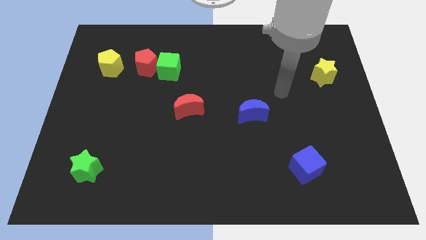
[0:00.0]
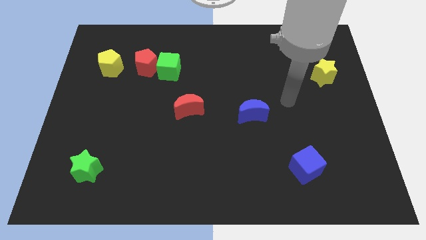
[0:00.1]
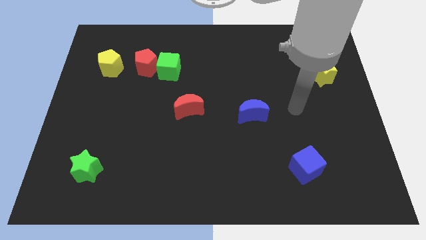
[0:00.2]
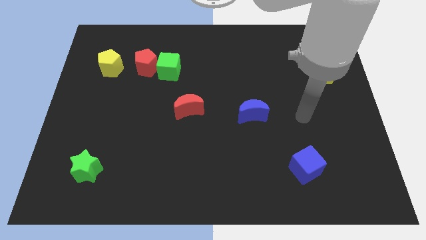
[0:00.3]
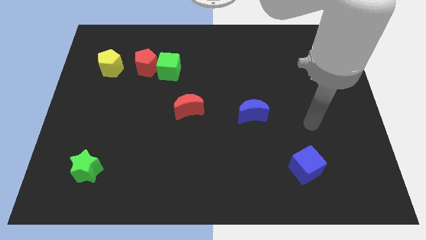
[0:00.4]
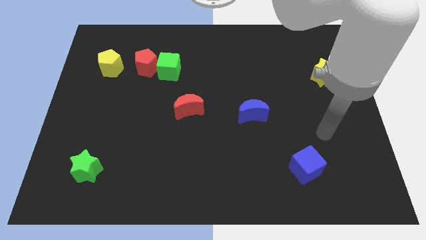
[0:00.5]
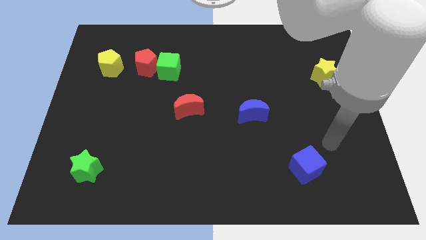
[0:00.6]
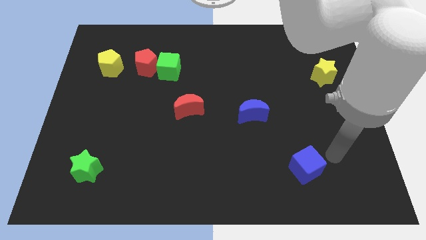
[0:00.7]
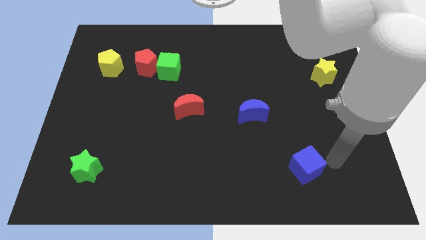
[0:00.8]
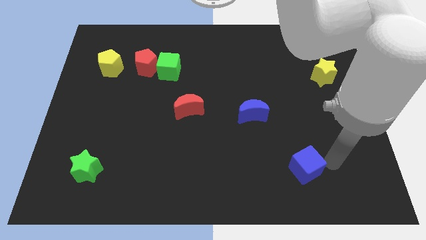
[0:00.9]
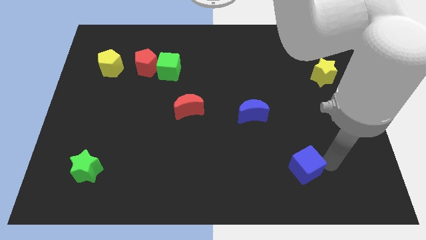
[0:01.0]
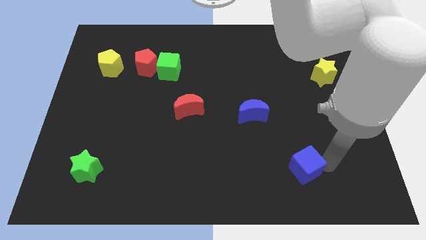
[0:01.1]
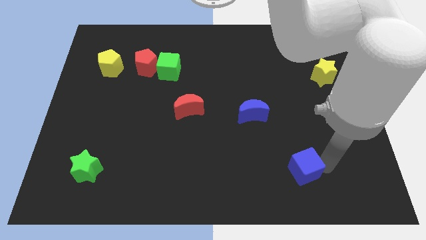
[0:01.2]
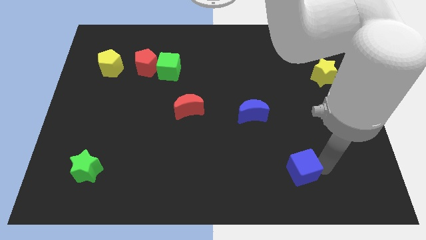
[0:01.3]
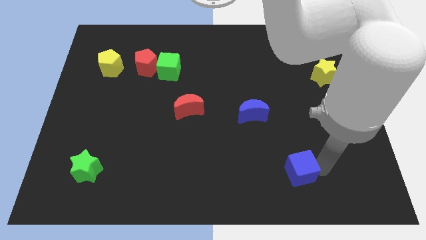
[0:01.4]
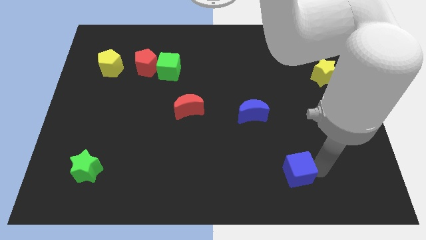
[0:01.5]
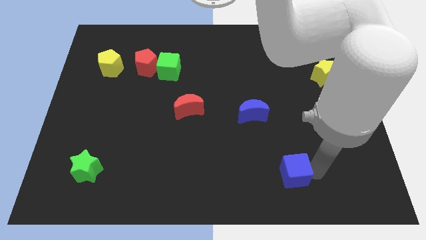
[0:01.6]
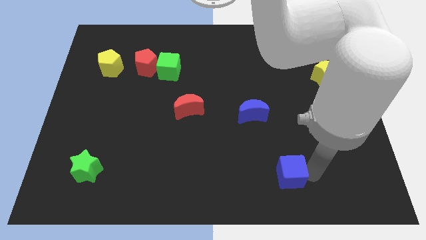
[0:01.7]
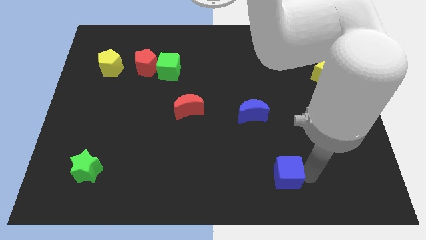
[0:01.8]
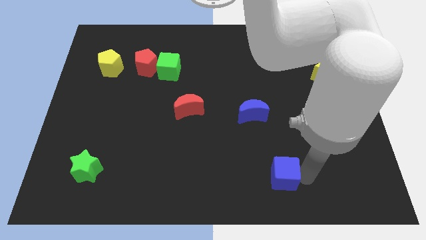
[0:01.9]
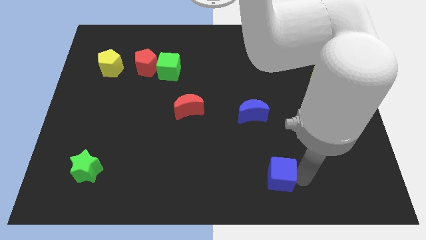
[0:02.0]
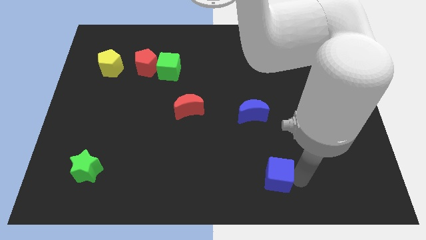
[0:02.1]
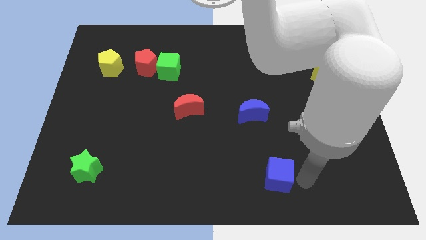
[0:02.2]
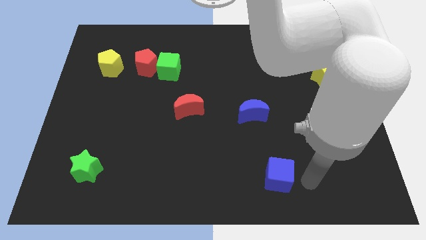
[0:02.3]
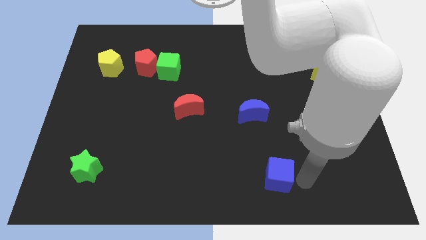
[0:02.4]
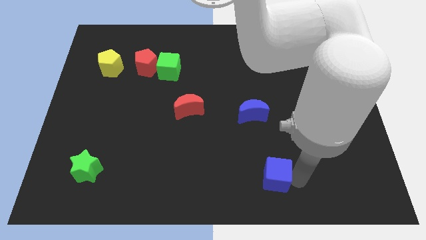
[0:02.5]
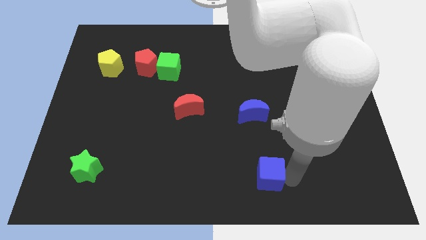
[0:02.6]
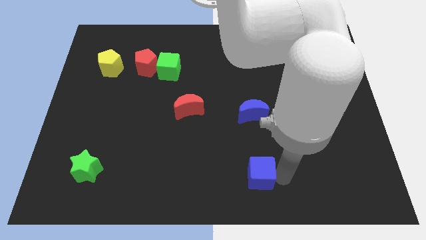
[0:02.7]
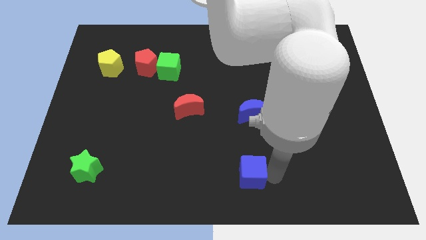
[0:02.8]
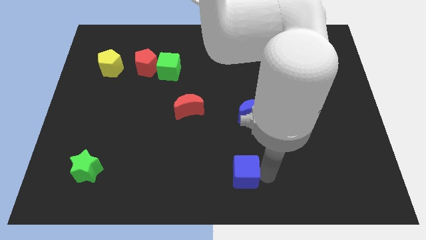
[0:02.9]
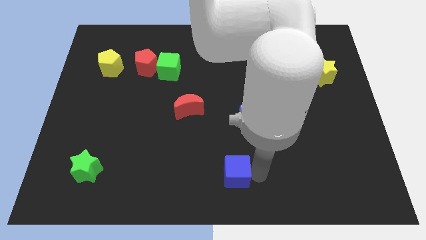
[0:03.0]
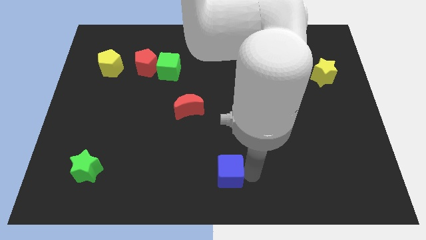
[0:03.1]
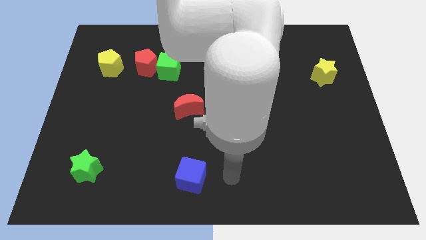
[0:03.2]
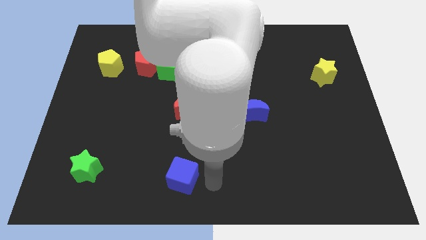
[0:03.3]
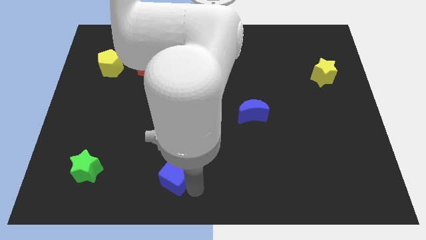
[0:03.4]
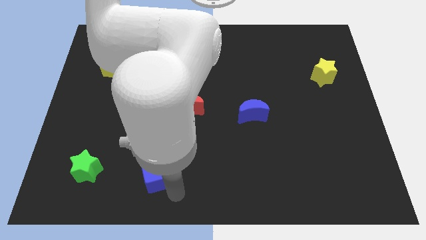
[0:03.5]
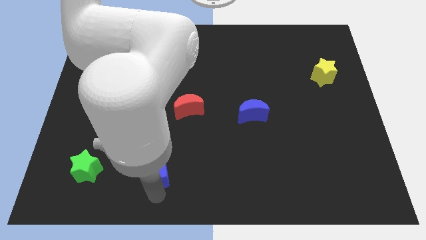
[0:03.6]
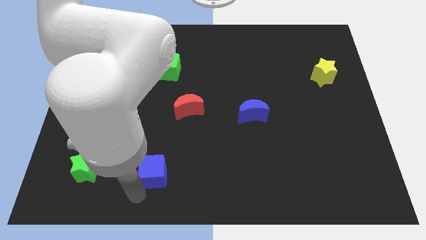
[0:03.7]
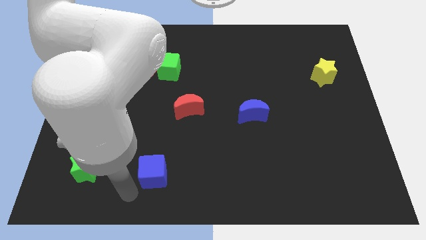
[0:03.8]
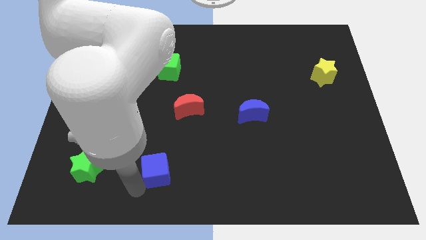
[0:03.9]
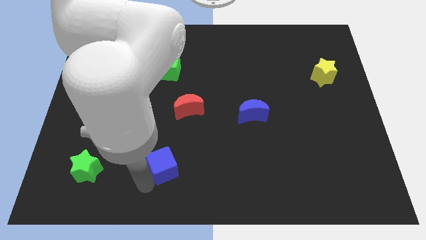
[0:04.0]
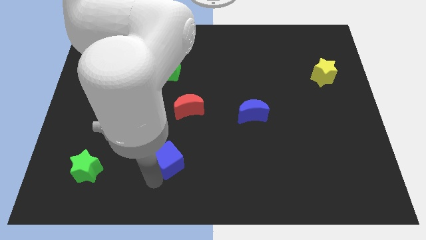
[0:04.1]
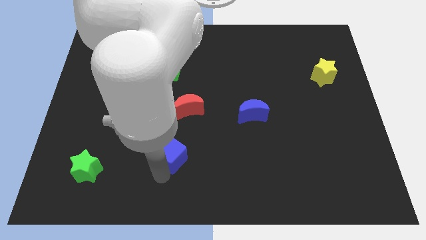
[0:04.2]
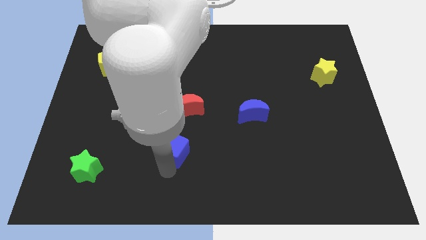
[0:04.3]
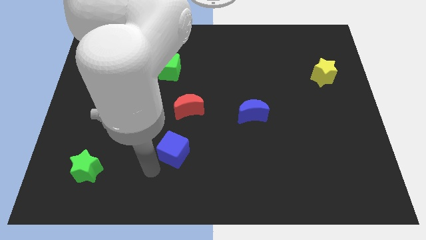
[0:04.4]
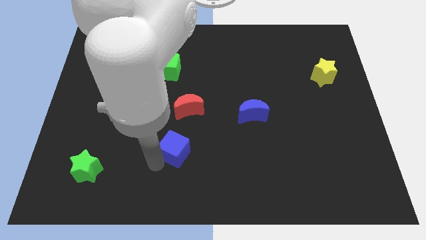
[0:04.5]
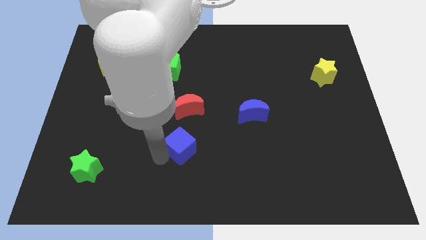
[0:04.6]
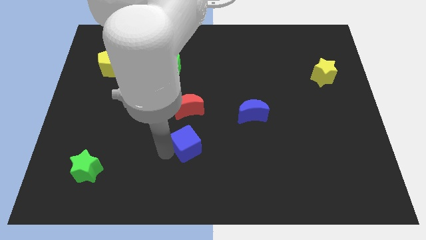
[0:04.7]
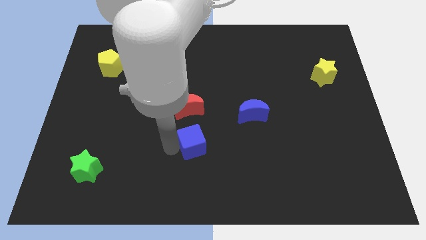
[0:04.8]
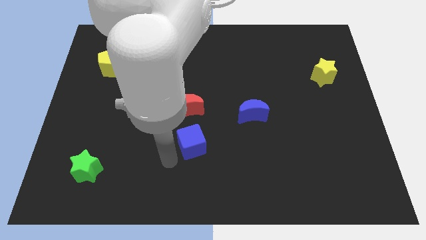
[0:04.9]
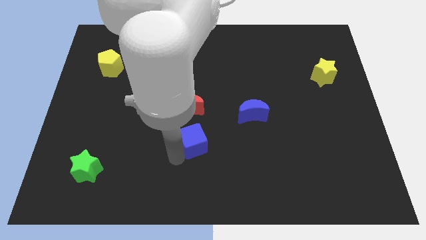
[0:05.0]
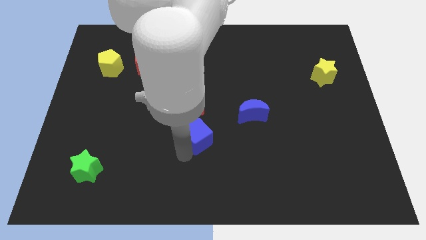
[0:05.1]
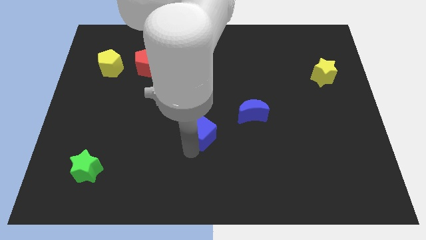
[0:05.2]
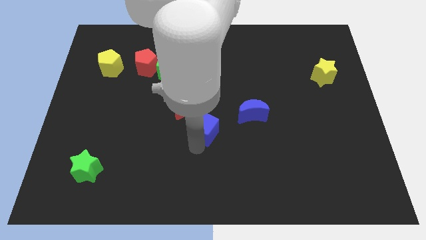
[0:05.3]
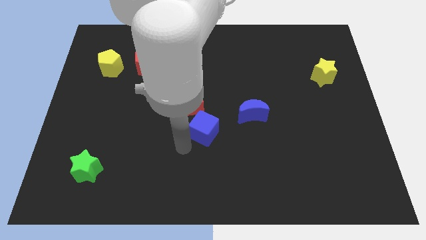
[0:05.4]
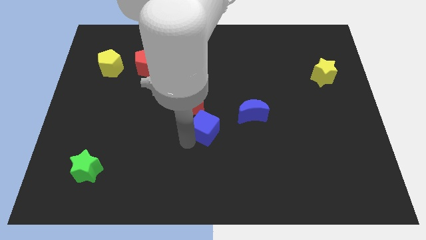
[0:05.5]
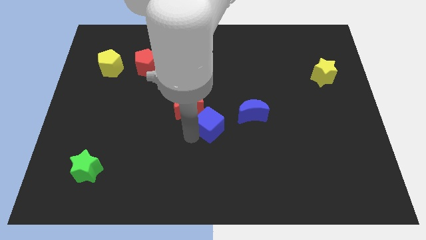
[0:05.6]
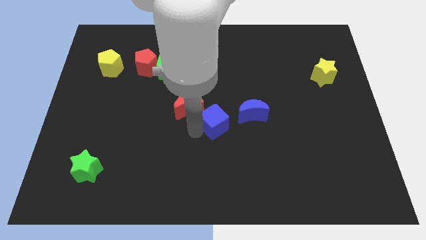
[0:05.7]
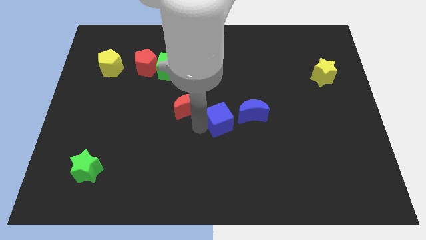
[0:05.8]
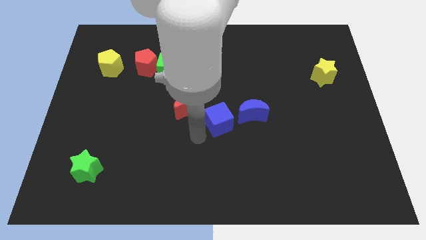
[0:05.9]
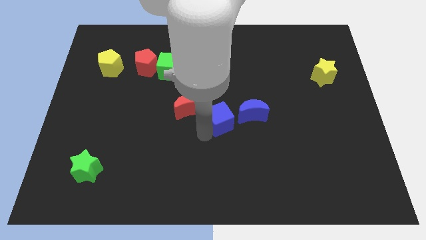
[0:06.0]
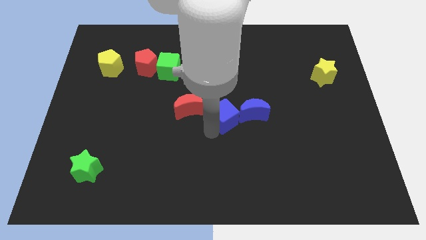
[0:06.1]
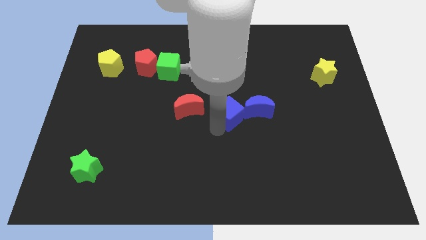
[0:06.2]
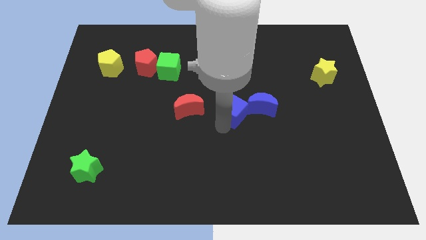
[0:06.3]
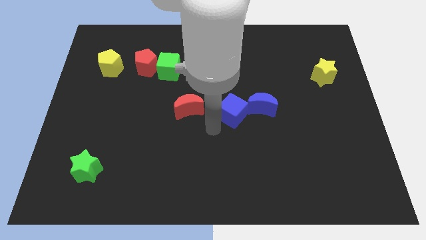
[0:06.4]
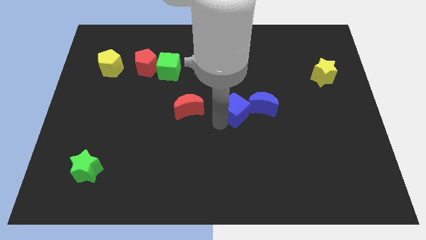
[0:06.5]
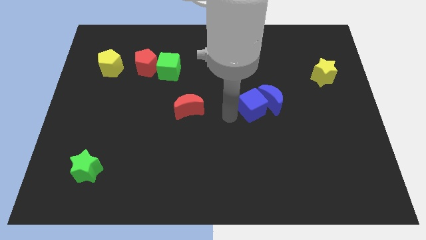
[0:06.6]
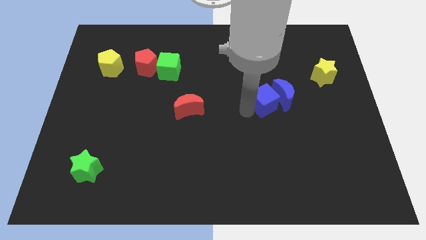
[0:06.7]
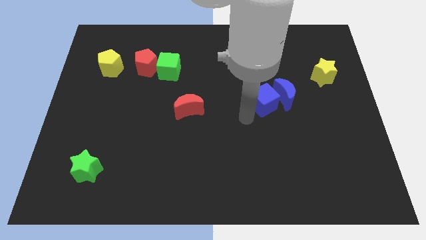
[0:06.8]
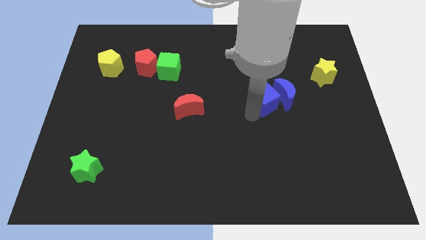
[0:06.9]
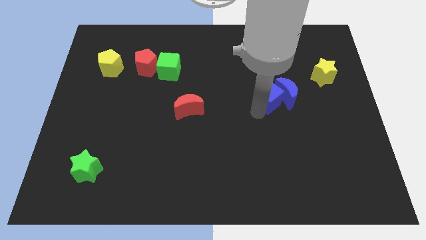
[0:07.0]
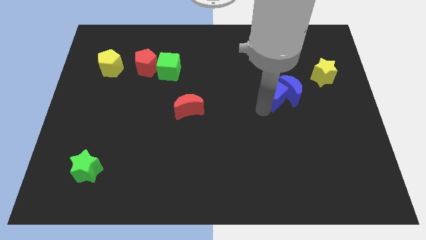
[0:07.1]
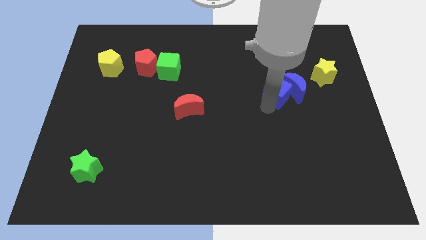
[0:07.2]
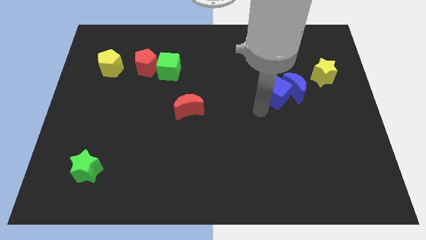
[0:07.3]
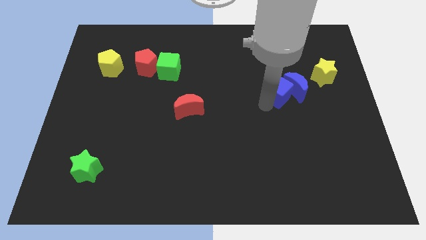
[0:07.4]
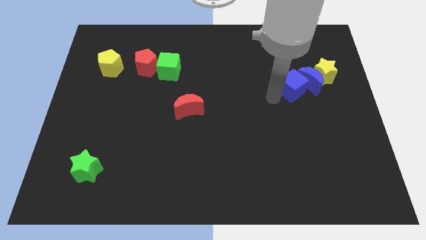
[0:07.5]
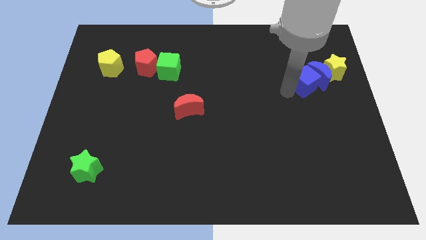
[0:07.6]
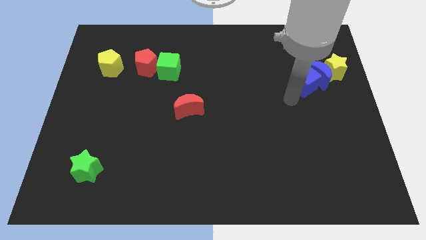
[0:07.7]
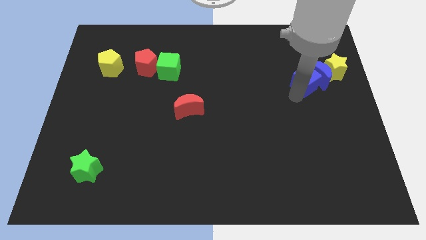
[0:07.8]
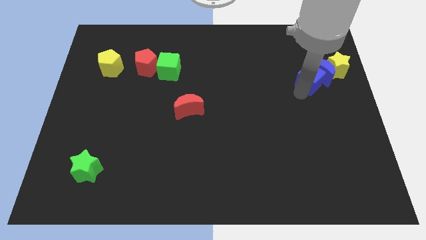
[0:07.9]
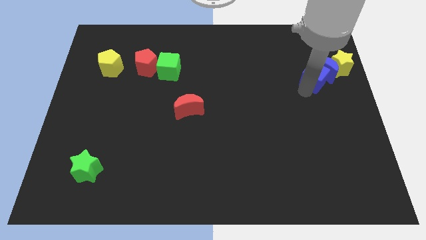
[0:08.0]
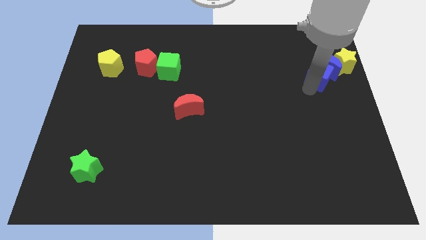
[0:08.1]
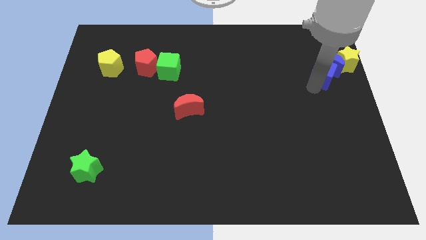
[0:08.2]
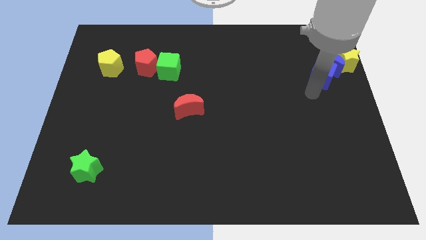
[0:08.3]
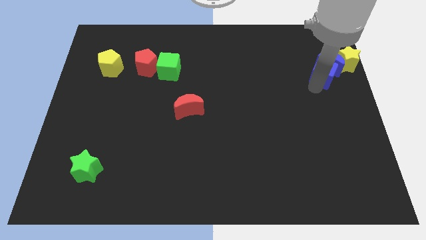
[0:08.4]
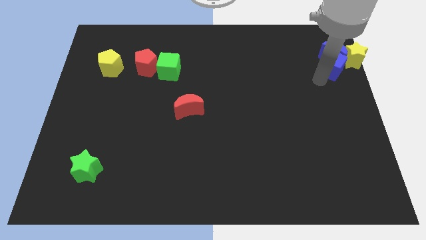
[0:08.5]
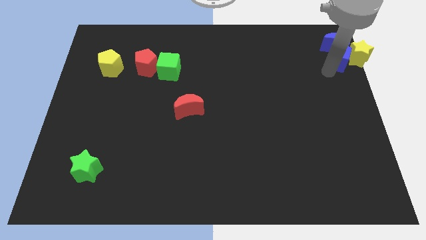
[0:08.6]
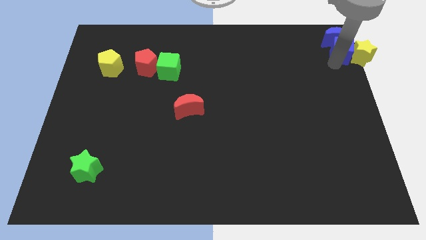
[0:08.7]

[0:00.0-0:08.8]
push the blue cube to the top right of the board
